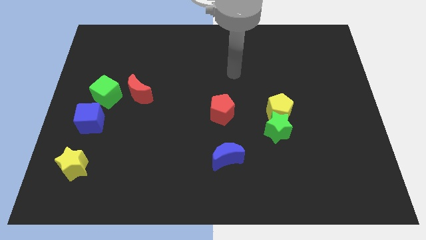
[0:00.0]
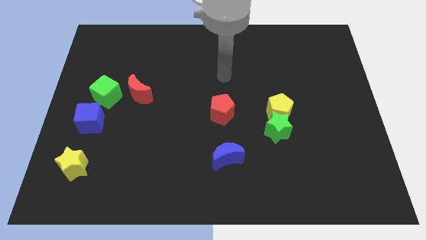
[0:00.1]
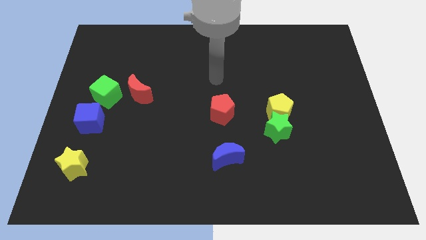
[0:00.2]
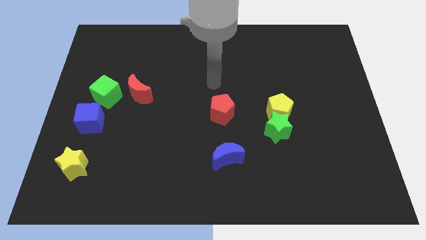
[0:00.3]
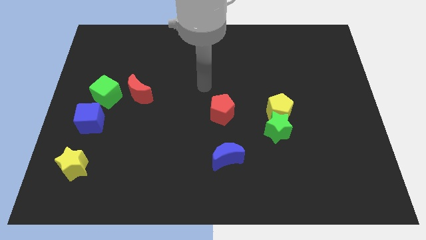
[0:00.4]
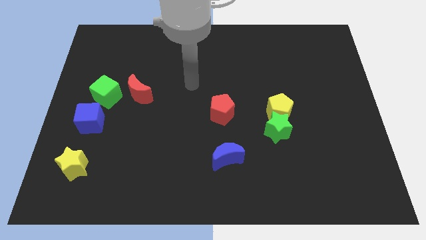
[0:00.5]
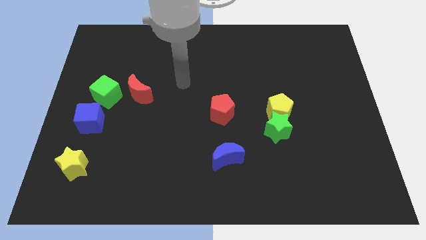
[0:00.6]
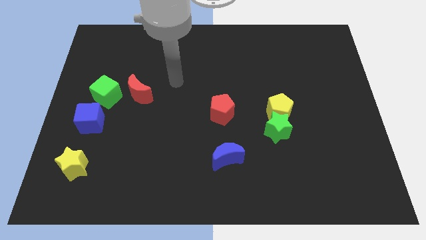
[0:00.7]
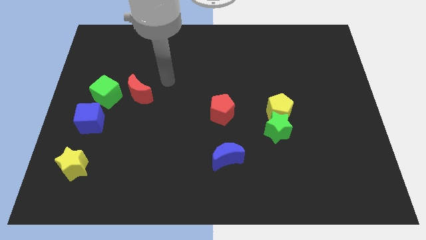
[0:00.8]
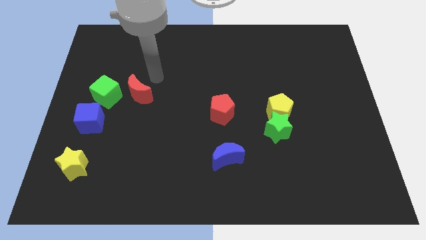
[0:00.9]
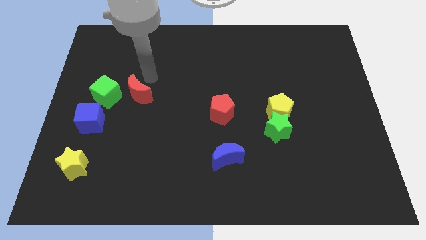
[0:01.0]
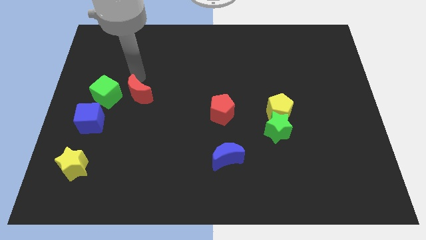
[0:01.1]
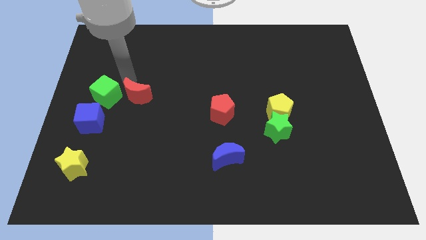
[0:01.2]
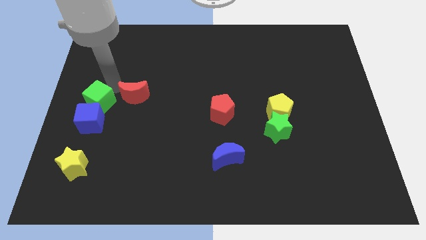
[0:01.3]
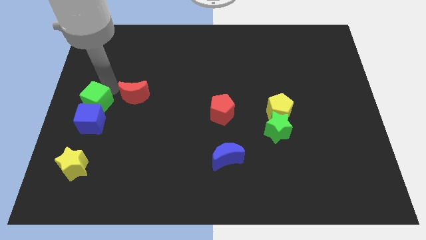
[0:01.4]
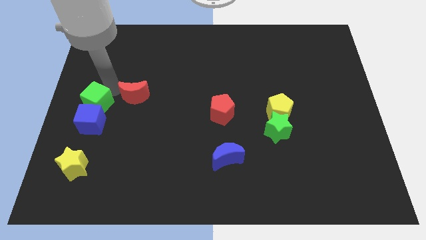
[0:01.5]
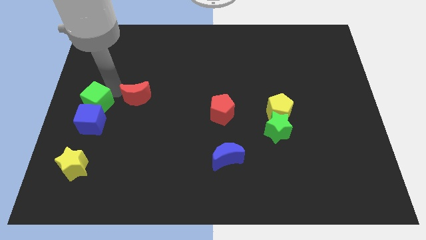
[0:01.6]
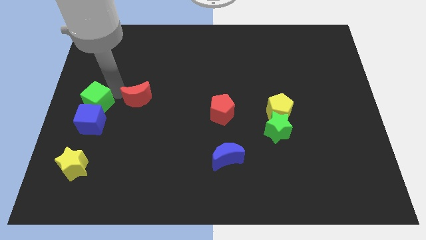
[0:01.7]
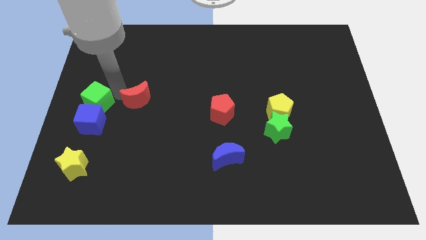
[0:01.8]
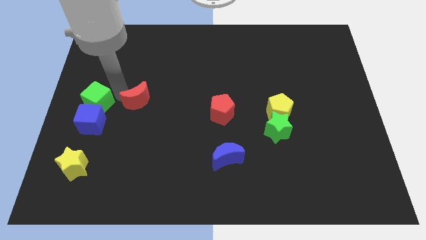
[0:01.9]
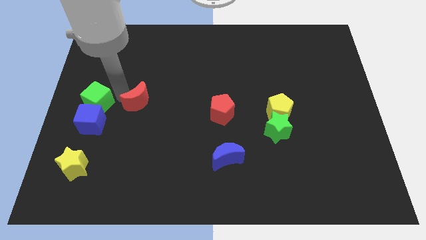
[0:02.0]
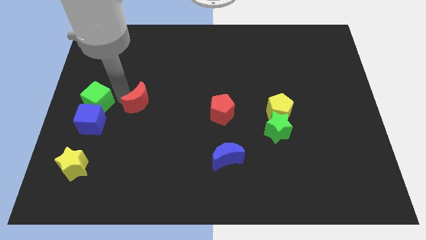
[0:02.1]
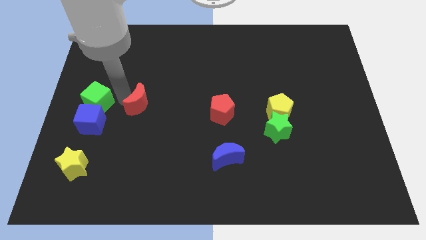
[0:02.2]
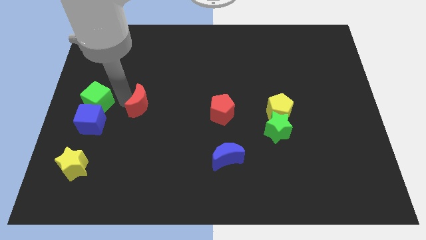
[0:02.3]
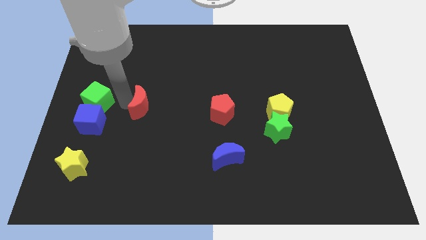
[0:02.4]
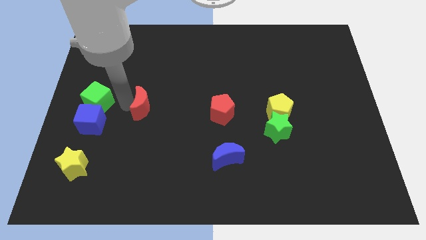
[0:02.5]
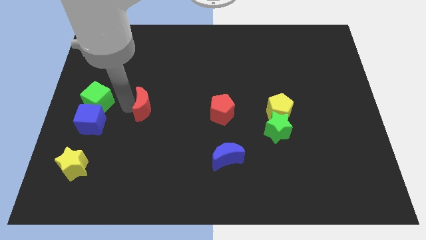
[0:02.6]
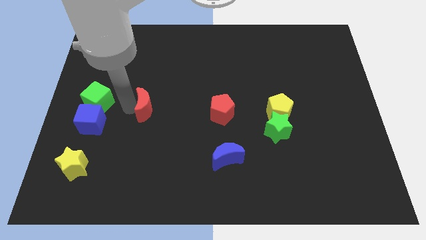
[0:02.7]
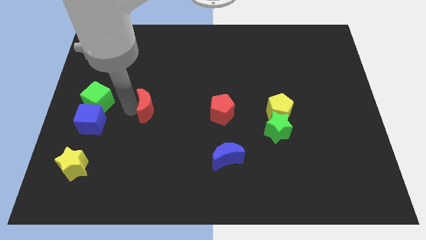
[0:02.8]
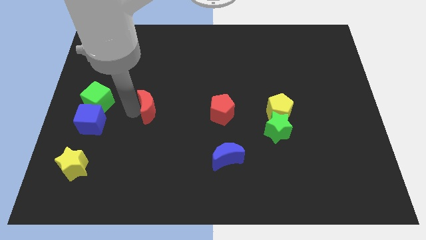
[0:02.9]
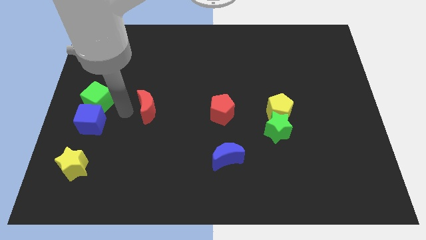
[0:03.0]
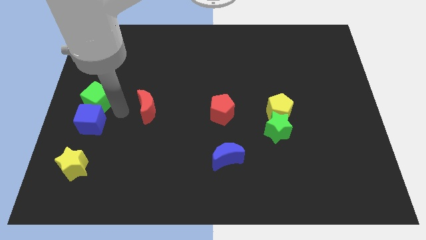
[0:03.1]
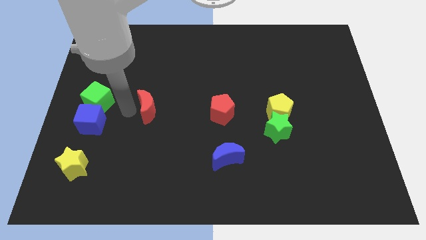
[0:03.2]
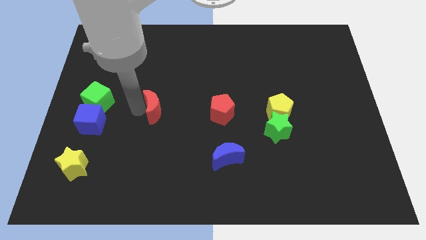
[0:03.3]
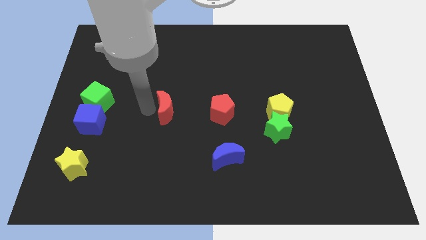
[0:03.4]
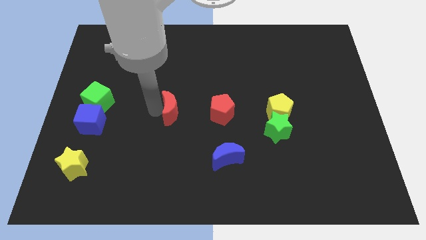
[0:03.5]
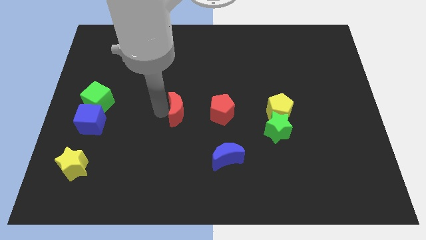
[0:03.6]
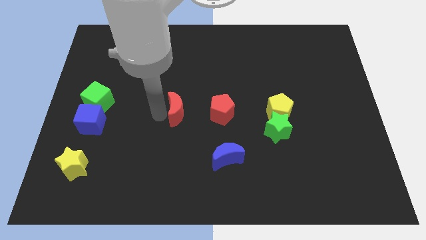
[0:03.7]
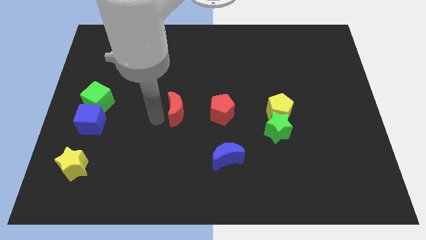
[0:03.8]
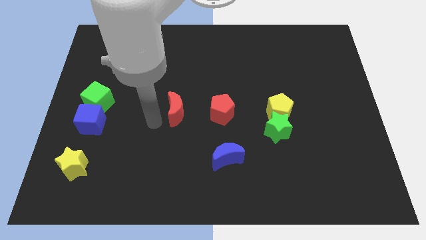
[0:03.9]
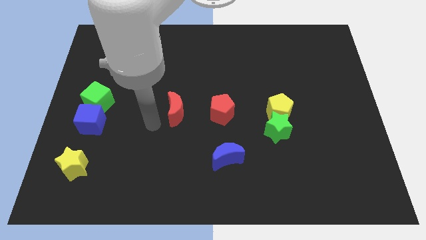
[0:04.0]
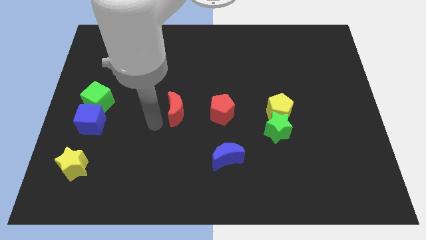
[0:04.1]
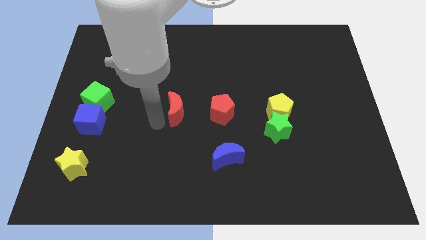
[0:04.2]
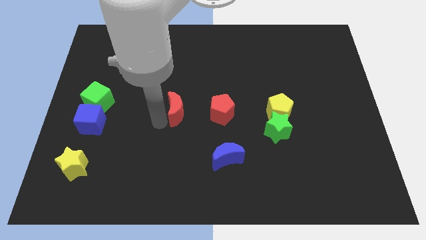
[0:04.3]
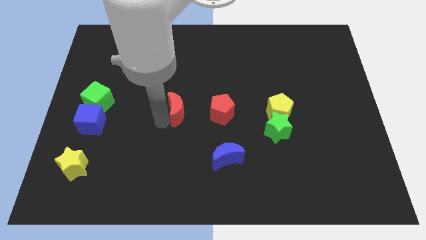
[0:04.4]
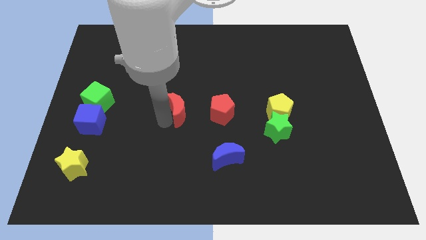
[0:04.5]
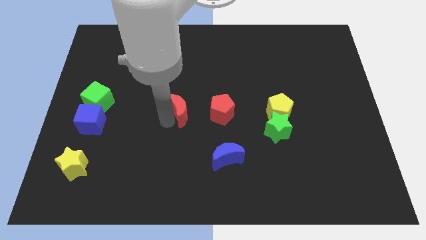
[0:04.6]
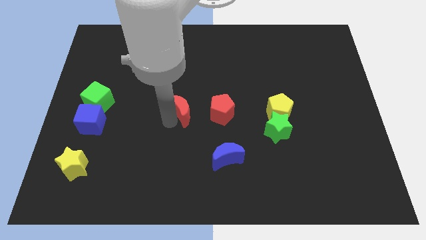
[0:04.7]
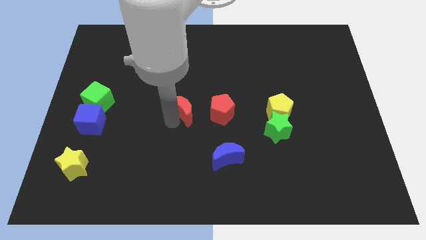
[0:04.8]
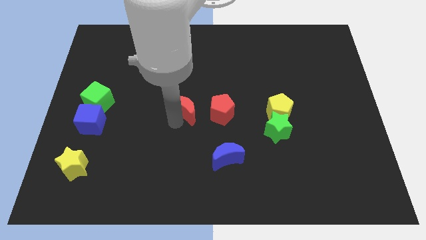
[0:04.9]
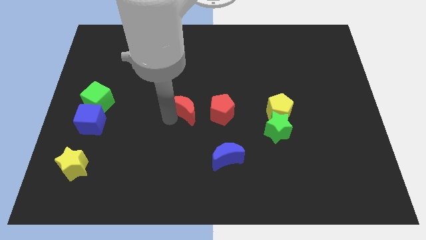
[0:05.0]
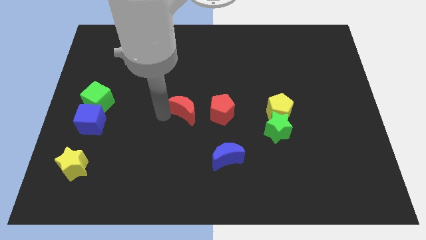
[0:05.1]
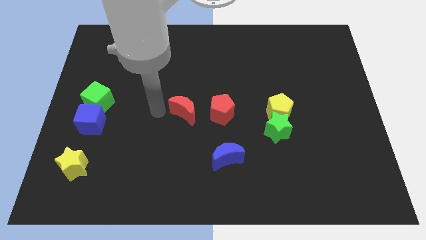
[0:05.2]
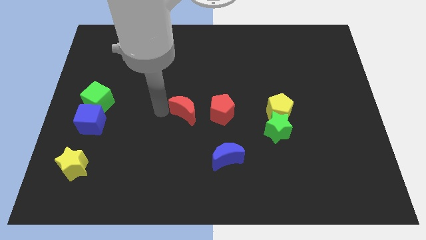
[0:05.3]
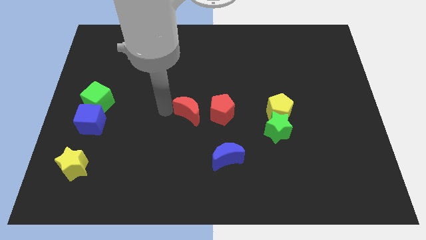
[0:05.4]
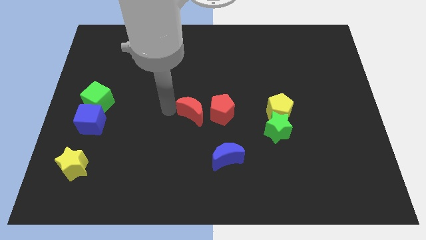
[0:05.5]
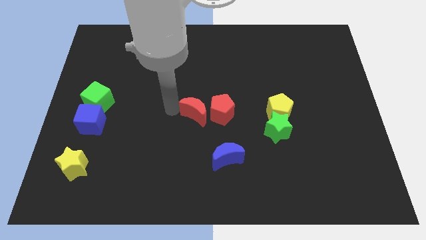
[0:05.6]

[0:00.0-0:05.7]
push the red moon to the red pentagon

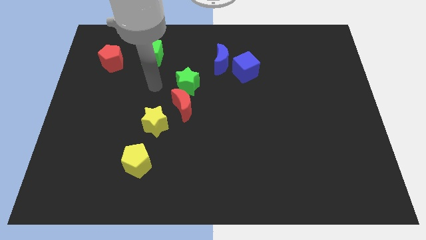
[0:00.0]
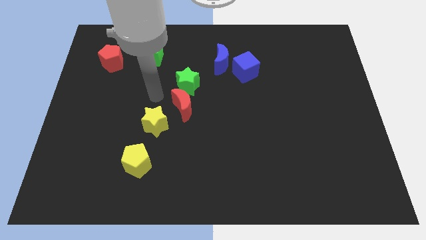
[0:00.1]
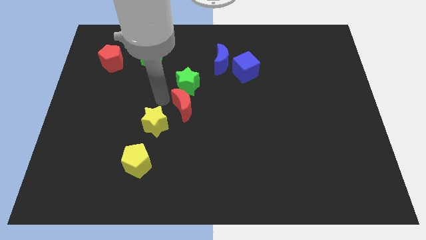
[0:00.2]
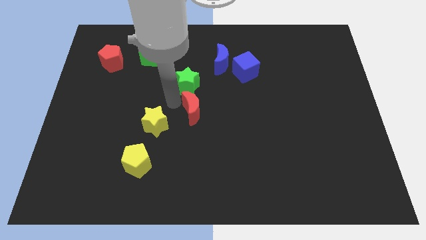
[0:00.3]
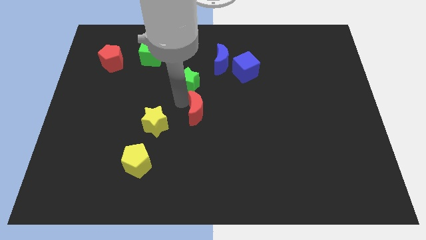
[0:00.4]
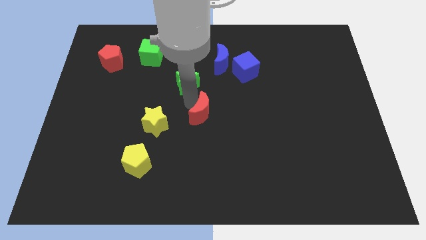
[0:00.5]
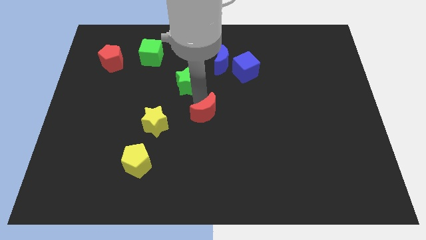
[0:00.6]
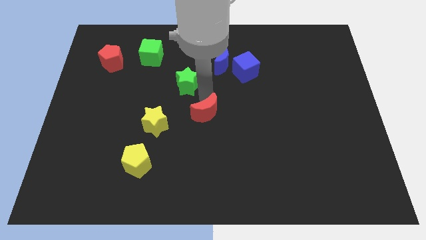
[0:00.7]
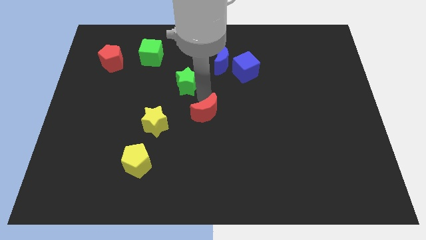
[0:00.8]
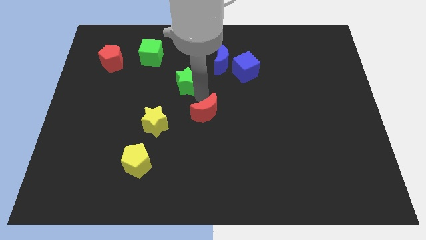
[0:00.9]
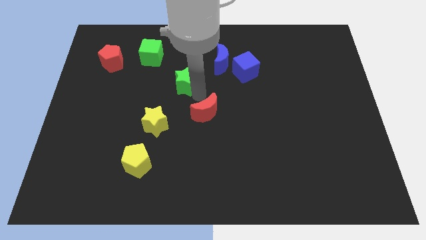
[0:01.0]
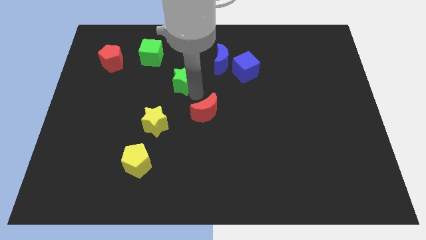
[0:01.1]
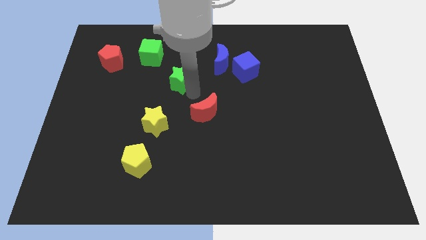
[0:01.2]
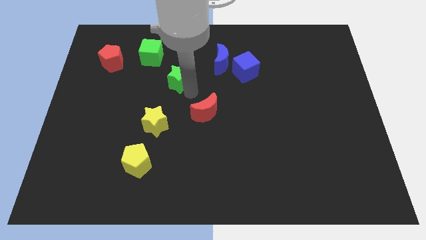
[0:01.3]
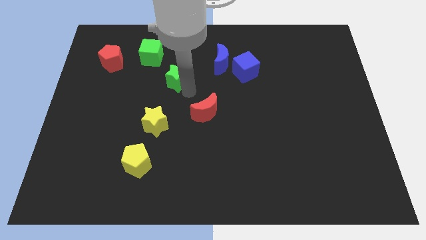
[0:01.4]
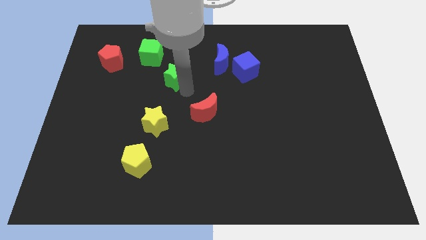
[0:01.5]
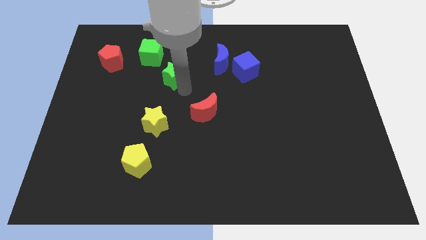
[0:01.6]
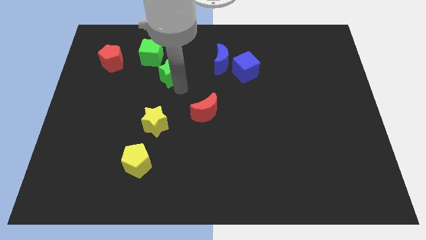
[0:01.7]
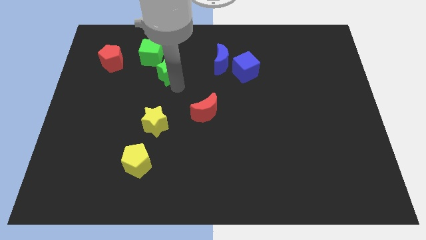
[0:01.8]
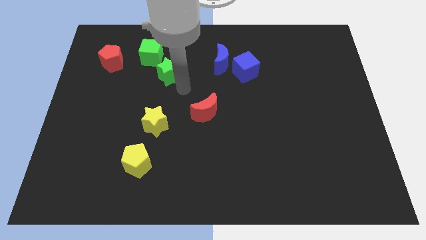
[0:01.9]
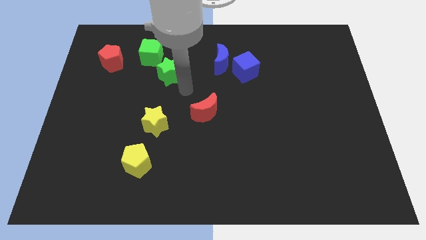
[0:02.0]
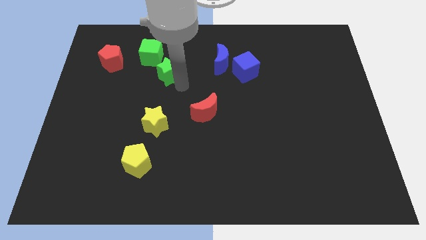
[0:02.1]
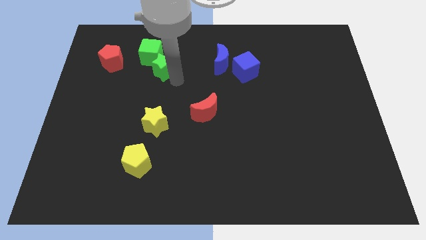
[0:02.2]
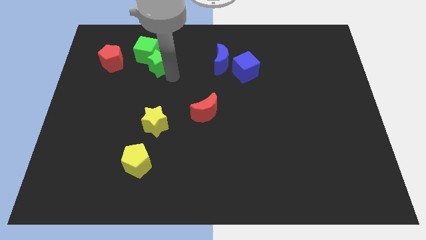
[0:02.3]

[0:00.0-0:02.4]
move the green star close to the green cube
